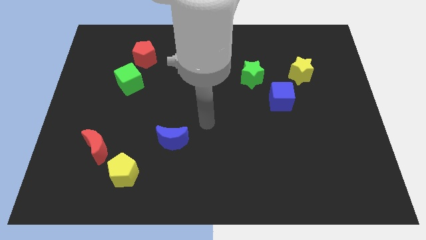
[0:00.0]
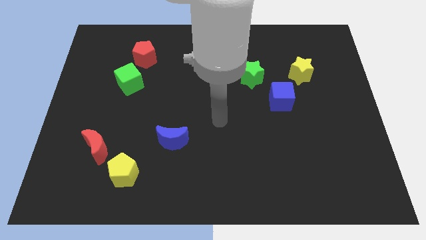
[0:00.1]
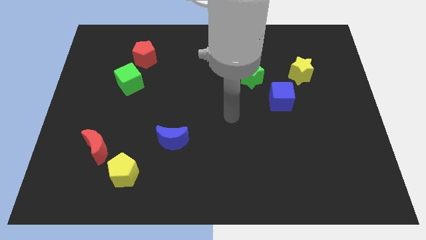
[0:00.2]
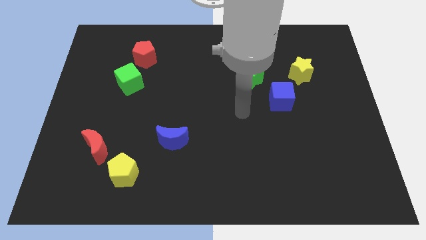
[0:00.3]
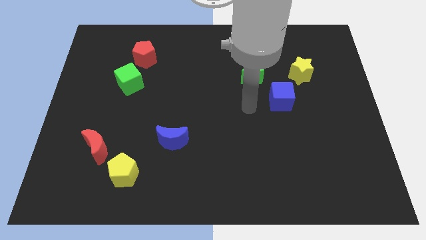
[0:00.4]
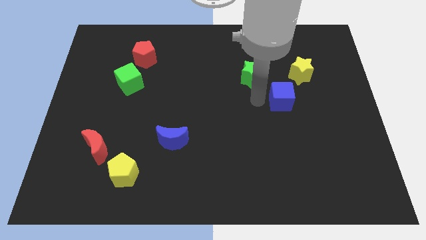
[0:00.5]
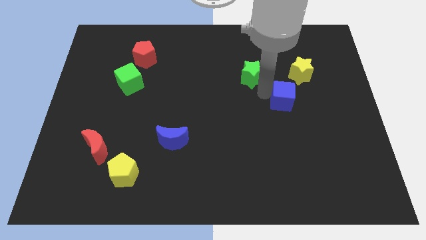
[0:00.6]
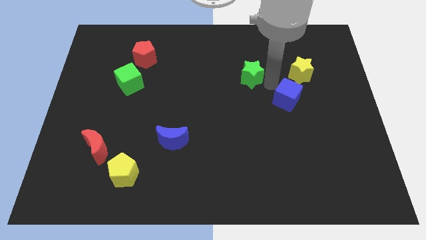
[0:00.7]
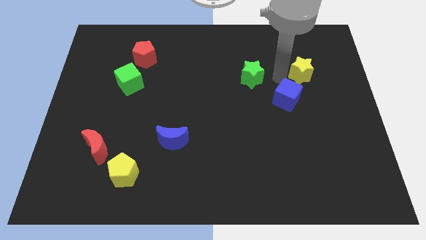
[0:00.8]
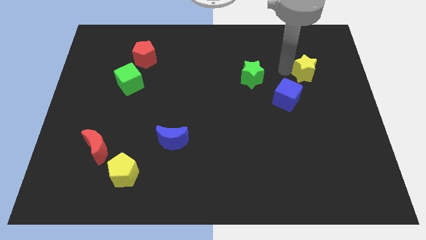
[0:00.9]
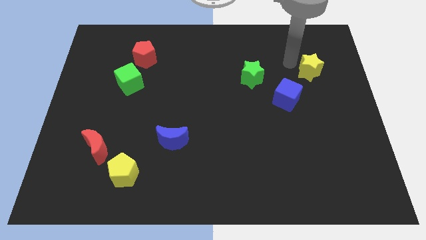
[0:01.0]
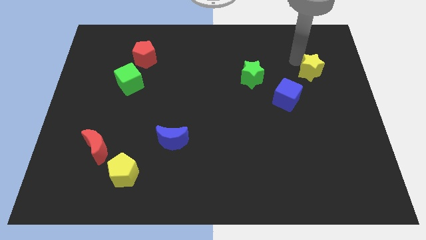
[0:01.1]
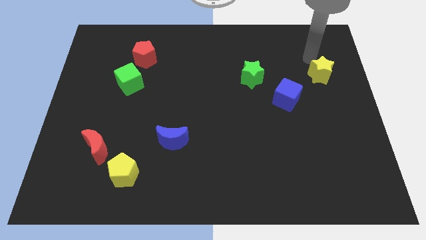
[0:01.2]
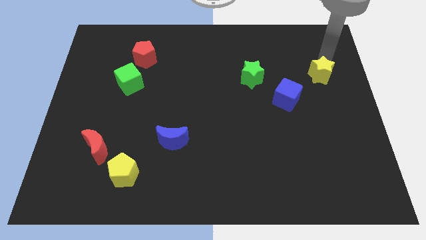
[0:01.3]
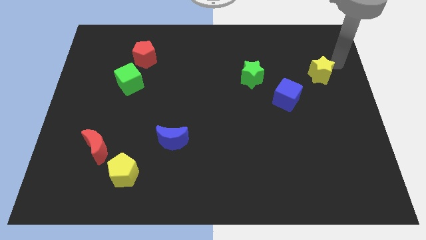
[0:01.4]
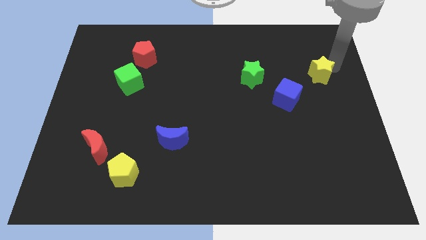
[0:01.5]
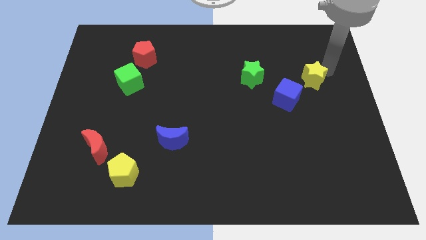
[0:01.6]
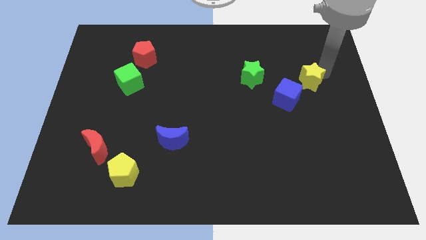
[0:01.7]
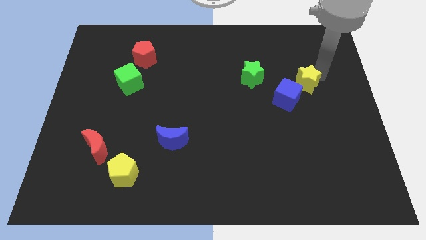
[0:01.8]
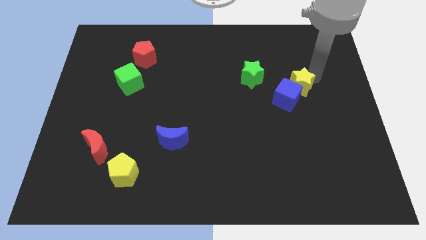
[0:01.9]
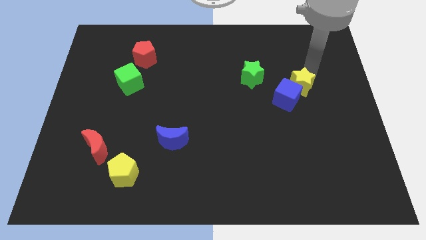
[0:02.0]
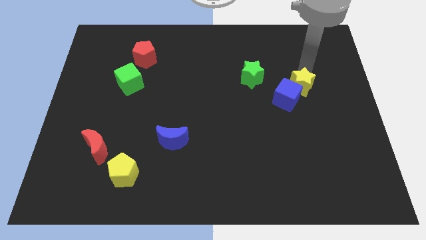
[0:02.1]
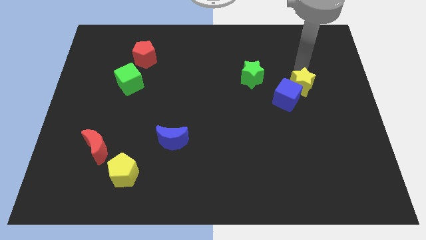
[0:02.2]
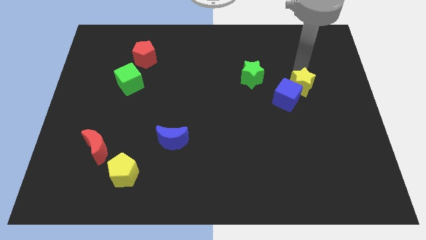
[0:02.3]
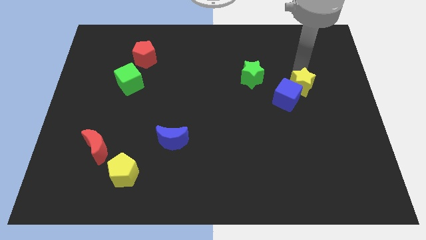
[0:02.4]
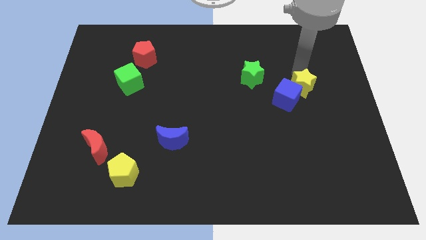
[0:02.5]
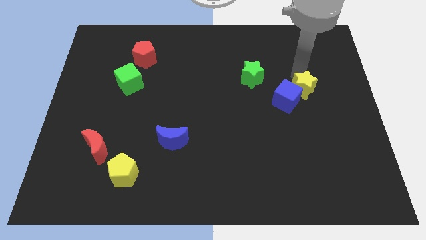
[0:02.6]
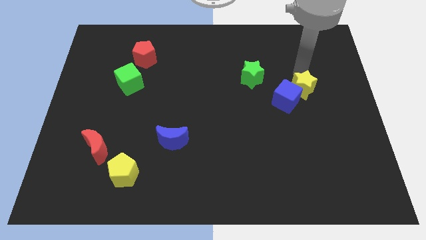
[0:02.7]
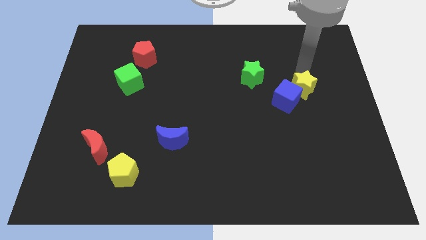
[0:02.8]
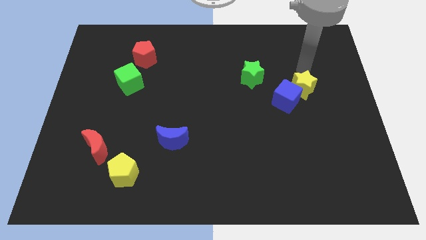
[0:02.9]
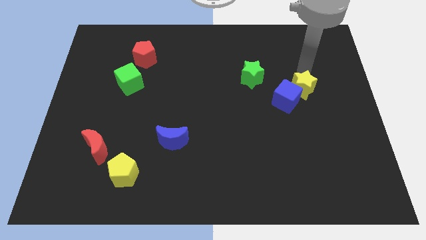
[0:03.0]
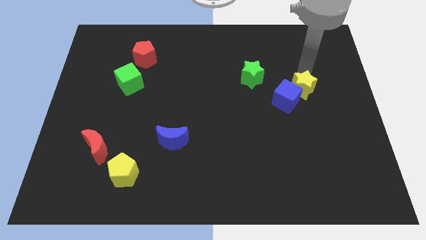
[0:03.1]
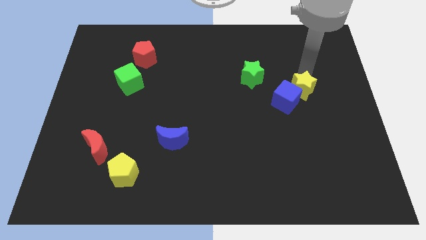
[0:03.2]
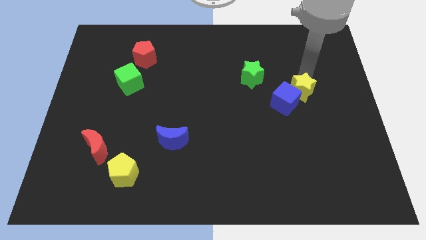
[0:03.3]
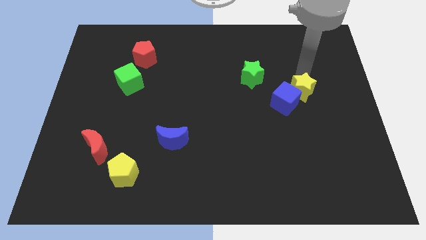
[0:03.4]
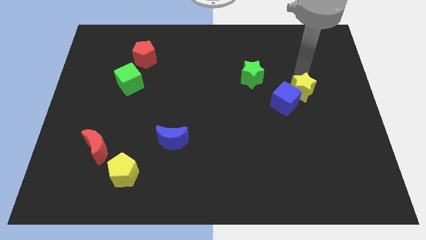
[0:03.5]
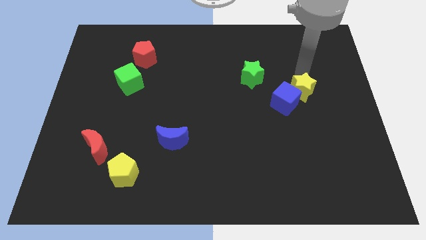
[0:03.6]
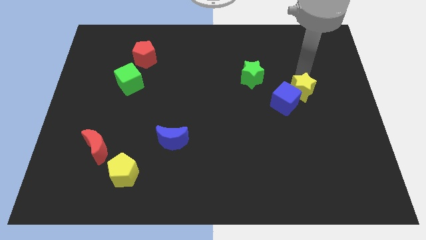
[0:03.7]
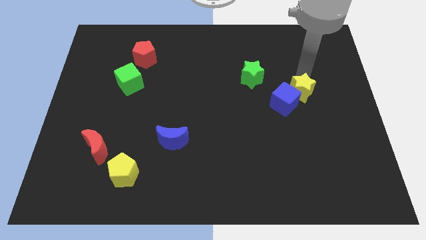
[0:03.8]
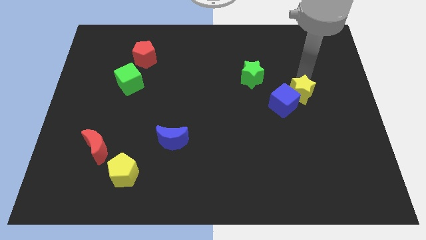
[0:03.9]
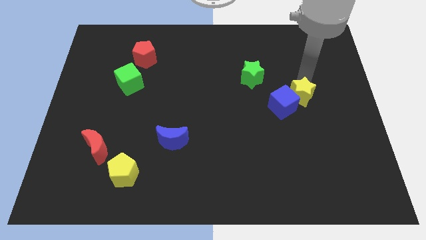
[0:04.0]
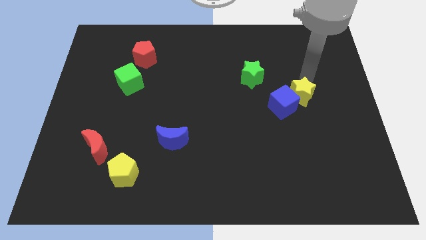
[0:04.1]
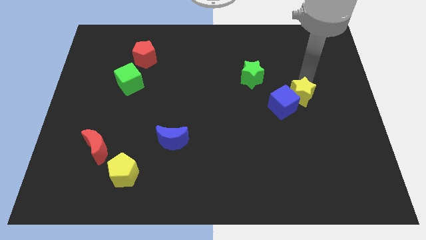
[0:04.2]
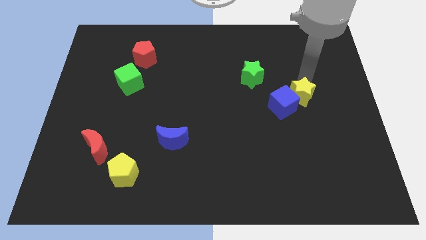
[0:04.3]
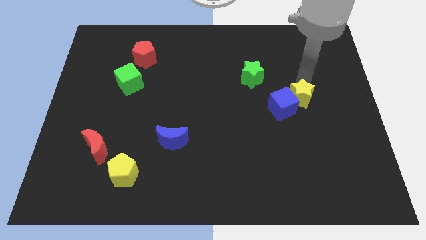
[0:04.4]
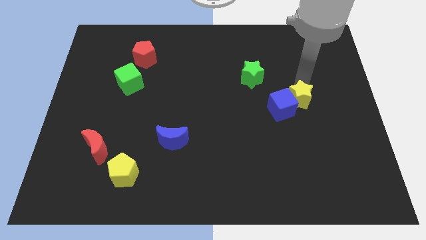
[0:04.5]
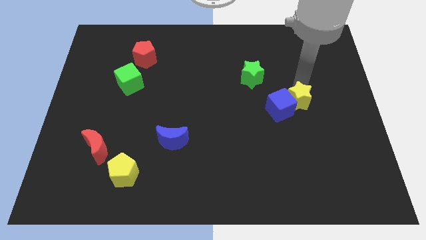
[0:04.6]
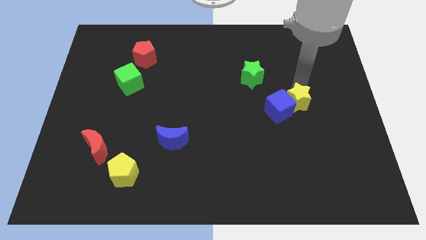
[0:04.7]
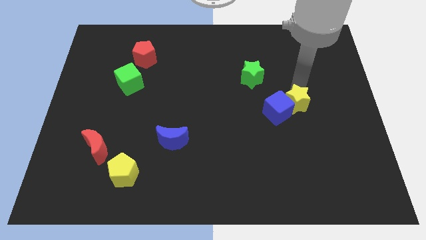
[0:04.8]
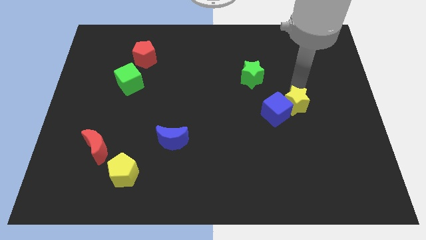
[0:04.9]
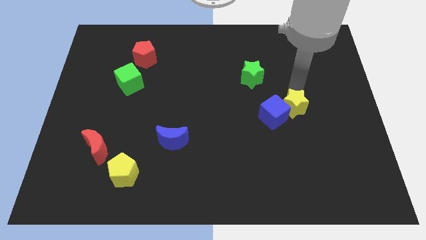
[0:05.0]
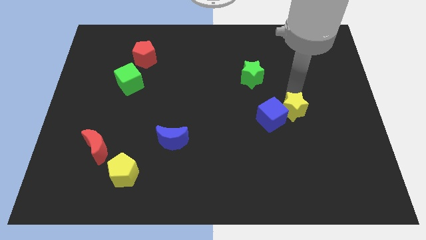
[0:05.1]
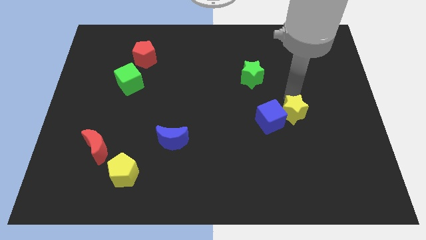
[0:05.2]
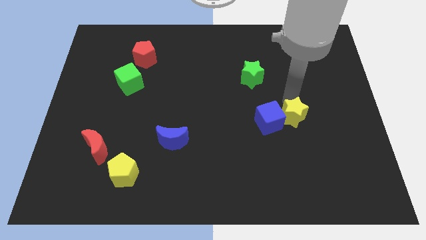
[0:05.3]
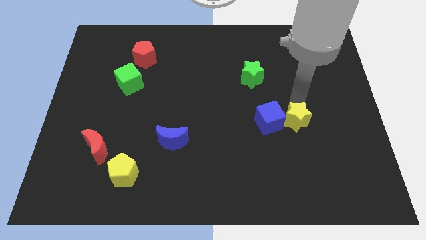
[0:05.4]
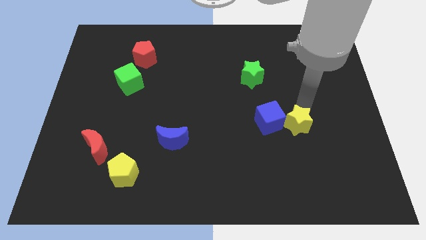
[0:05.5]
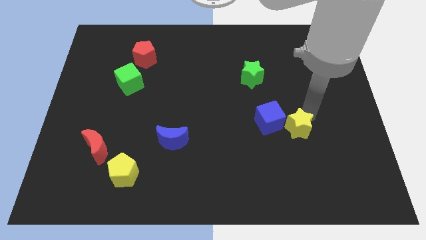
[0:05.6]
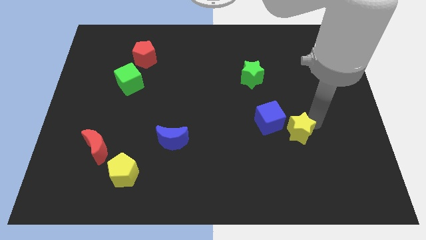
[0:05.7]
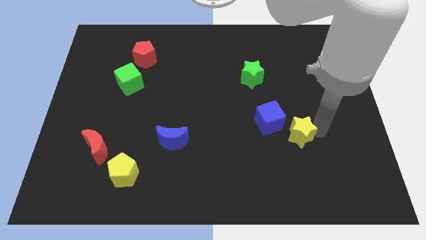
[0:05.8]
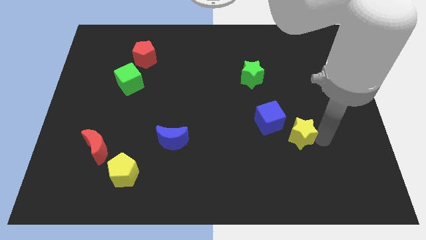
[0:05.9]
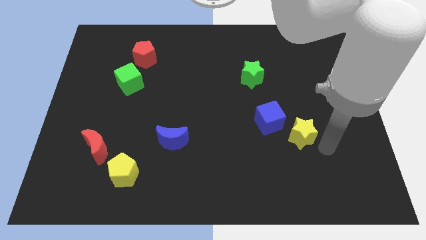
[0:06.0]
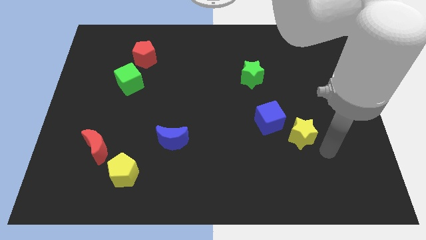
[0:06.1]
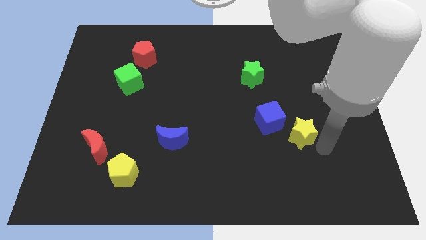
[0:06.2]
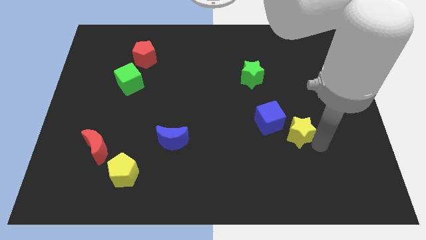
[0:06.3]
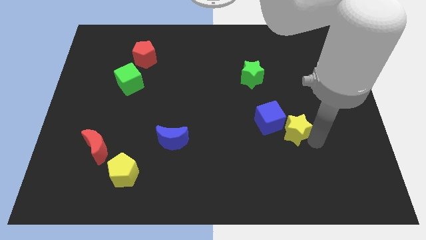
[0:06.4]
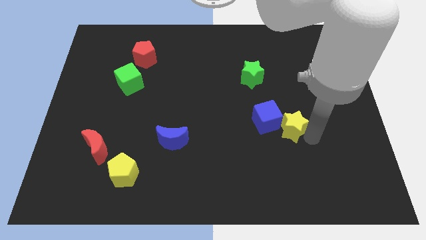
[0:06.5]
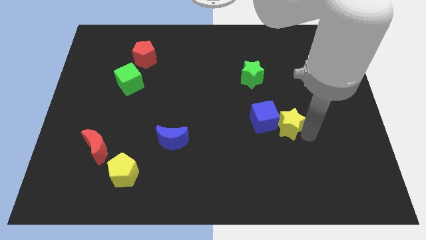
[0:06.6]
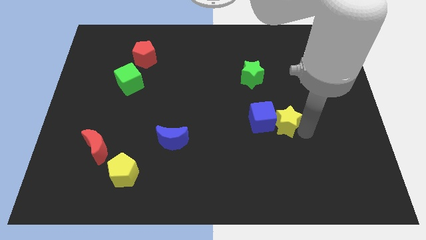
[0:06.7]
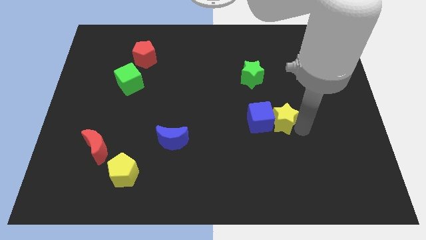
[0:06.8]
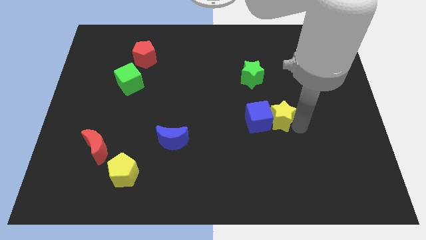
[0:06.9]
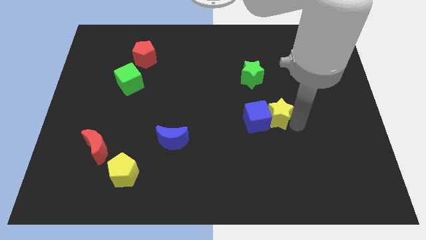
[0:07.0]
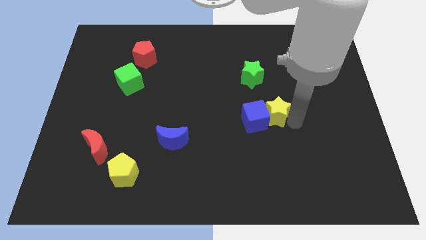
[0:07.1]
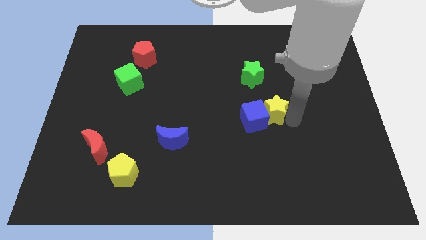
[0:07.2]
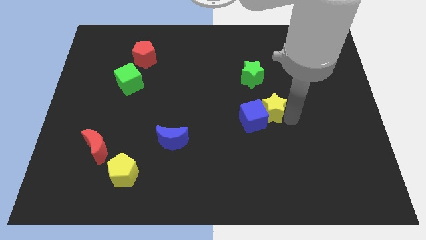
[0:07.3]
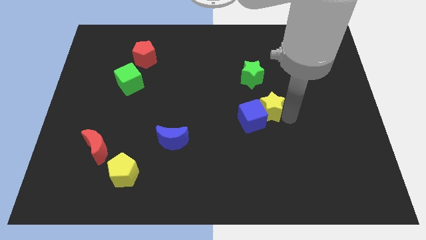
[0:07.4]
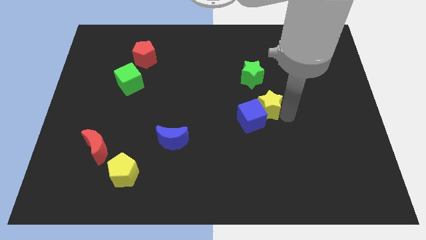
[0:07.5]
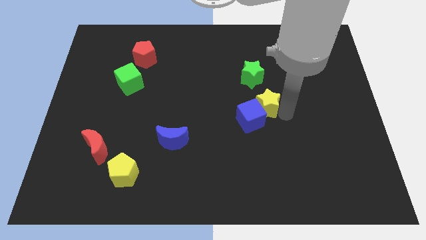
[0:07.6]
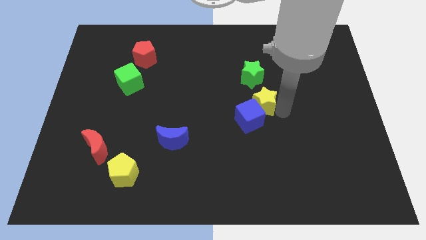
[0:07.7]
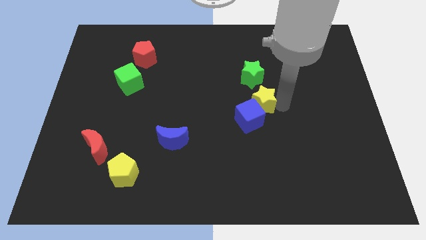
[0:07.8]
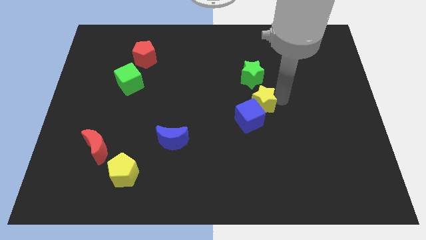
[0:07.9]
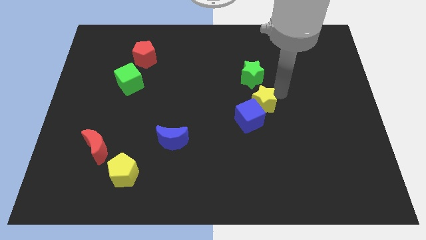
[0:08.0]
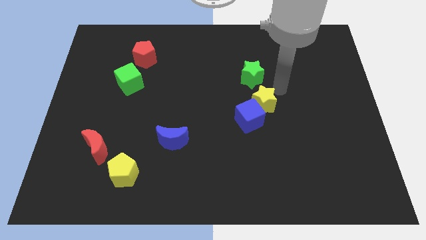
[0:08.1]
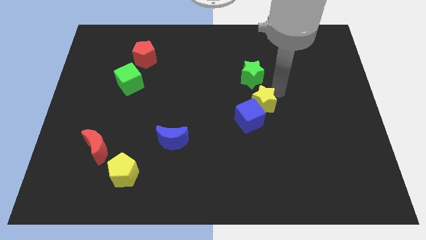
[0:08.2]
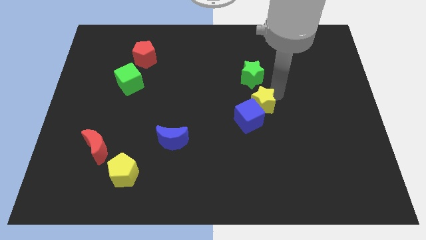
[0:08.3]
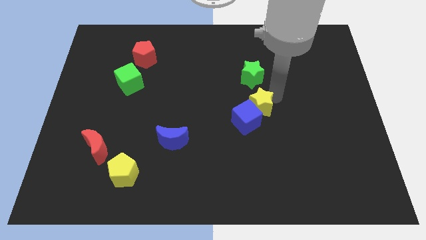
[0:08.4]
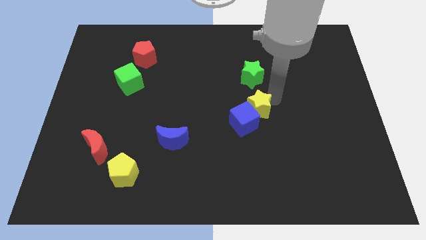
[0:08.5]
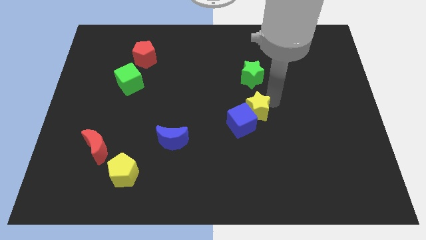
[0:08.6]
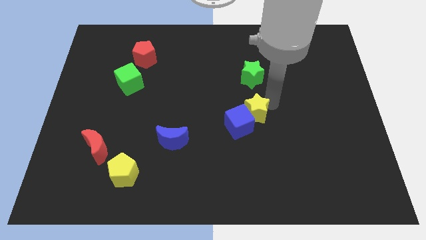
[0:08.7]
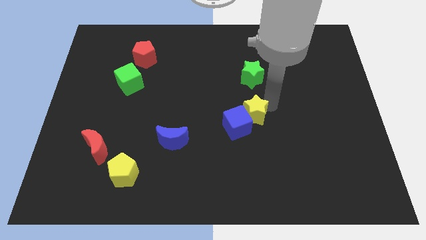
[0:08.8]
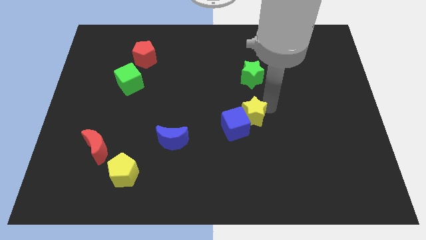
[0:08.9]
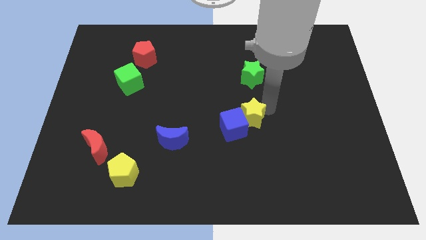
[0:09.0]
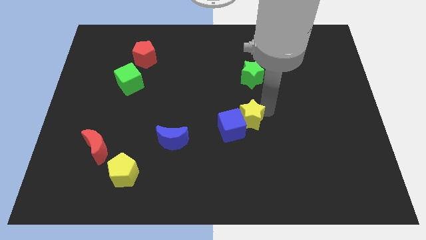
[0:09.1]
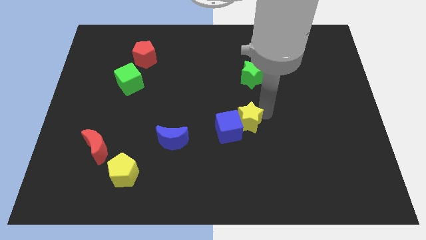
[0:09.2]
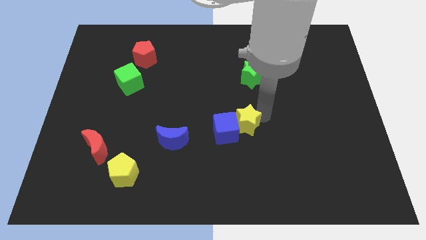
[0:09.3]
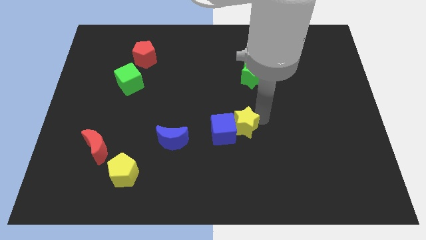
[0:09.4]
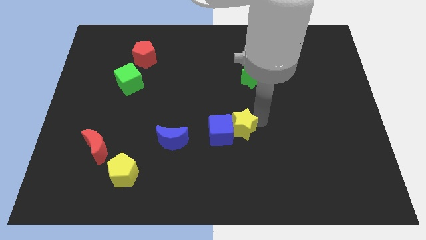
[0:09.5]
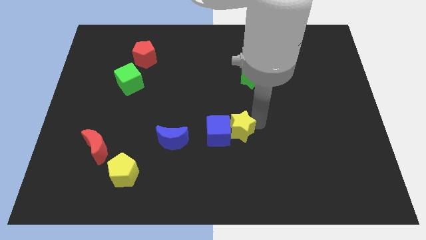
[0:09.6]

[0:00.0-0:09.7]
put the yellow star to the right of the blue moon
